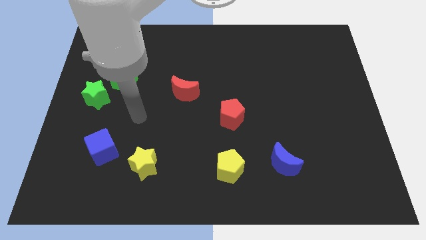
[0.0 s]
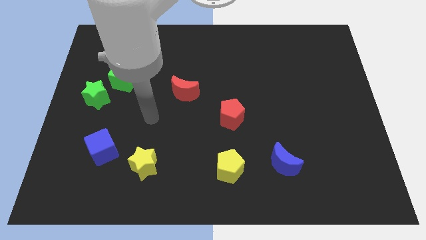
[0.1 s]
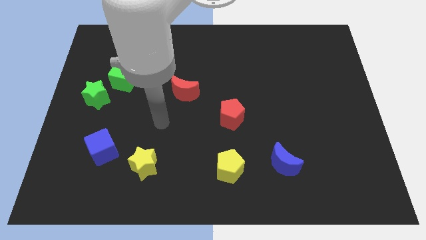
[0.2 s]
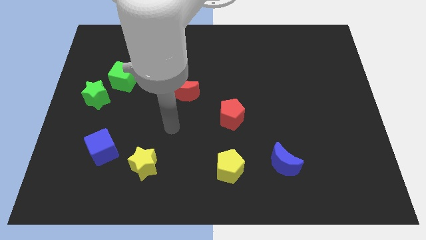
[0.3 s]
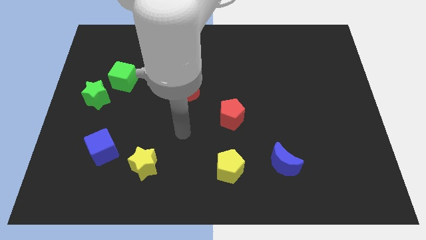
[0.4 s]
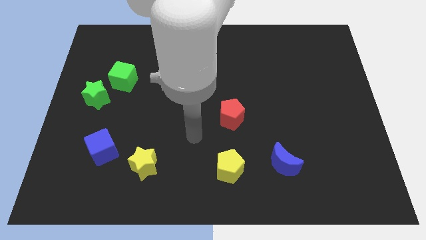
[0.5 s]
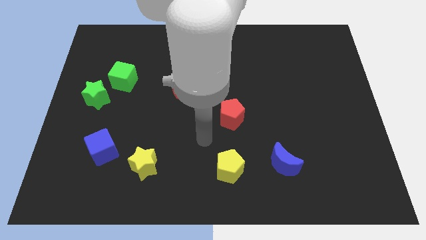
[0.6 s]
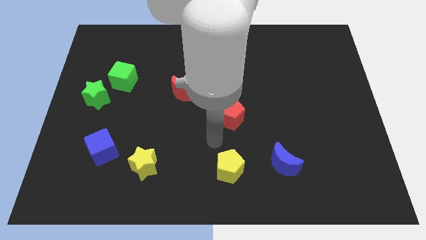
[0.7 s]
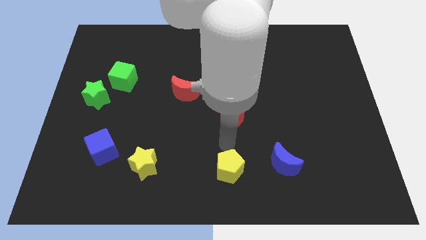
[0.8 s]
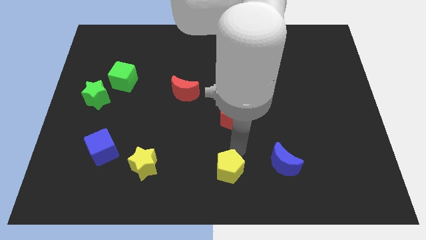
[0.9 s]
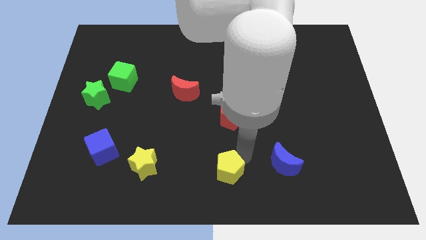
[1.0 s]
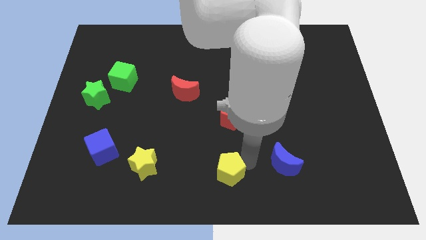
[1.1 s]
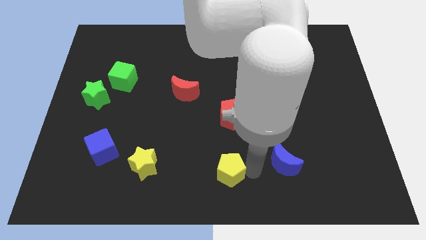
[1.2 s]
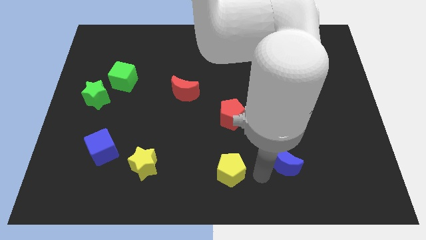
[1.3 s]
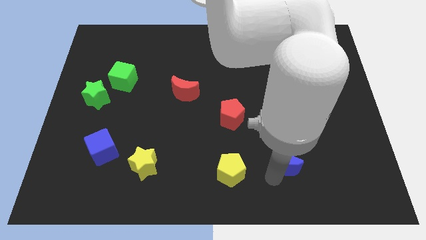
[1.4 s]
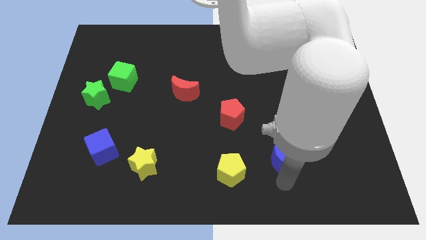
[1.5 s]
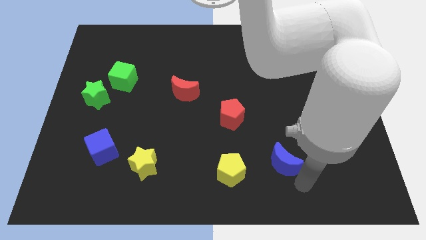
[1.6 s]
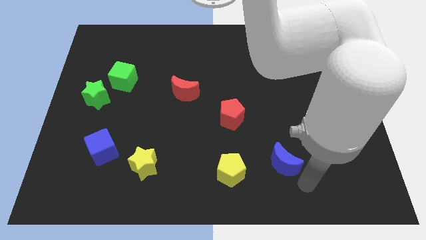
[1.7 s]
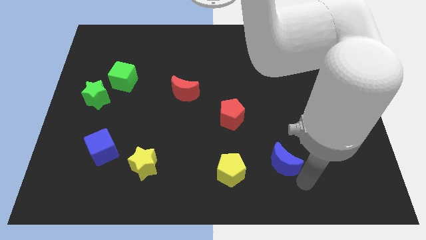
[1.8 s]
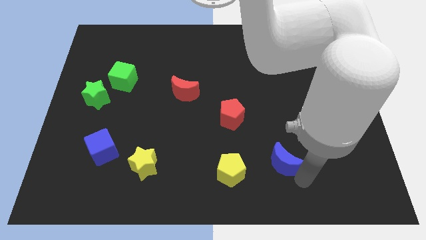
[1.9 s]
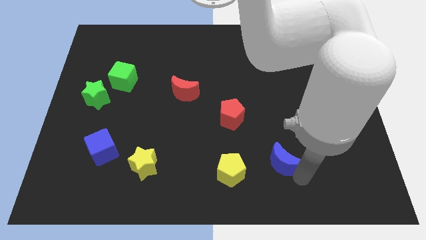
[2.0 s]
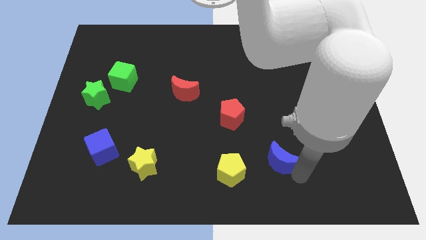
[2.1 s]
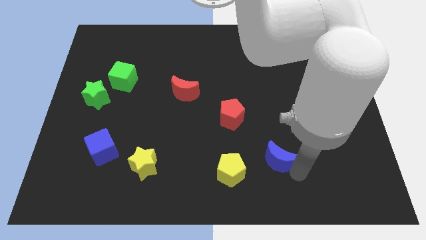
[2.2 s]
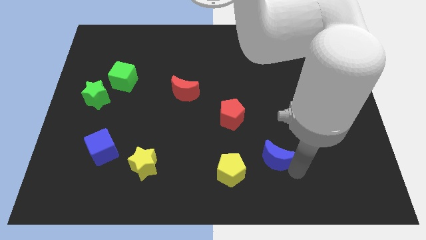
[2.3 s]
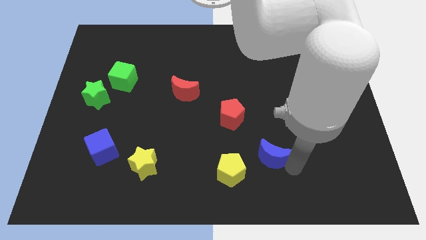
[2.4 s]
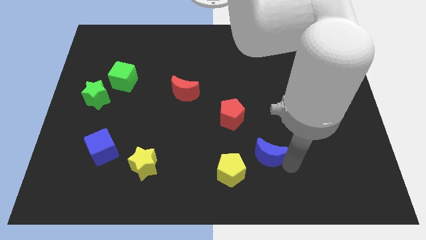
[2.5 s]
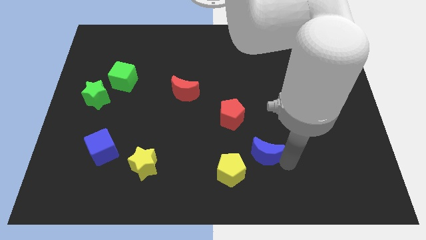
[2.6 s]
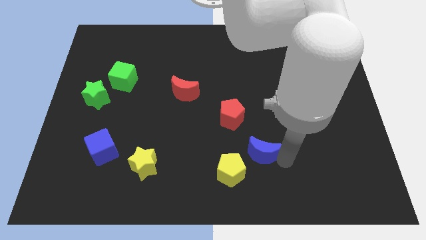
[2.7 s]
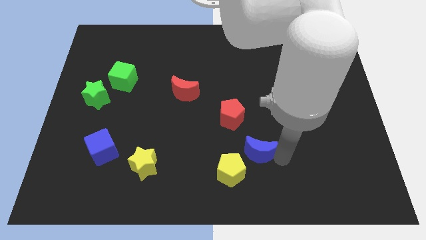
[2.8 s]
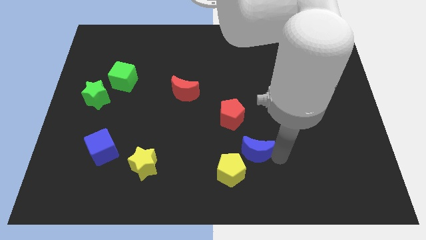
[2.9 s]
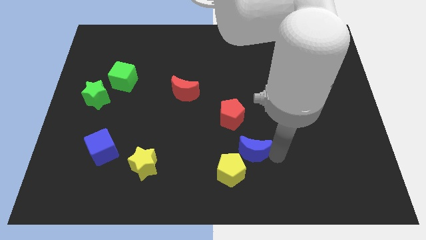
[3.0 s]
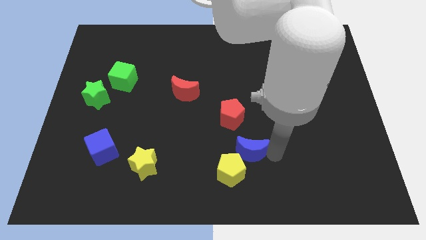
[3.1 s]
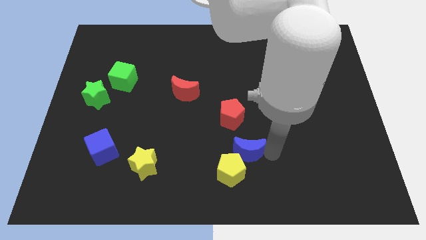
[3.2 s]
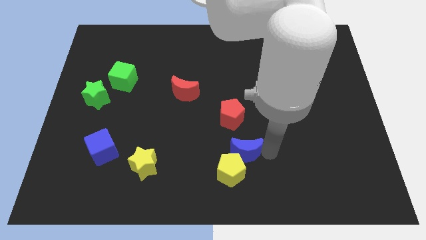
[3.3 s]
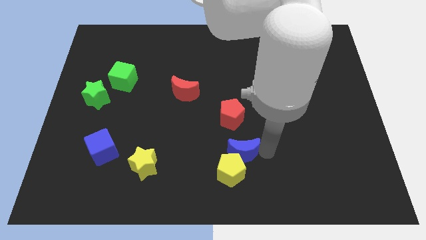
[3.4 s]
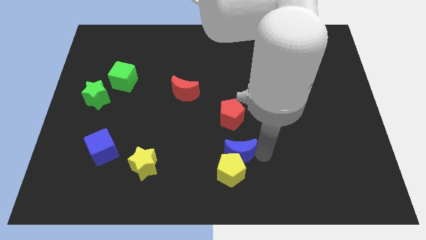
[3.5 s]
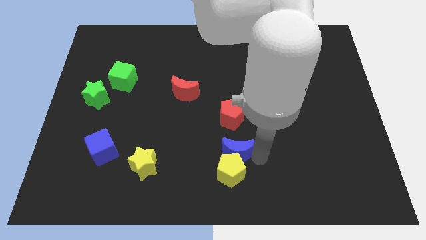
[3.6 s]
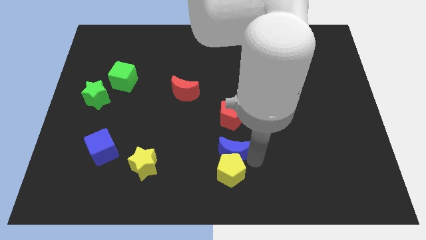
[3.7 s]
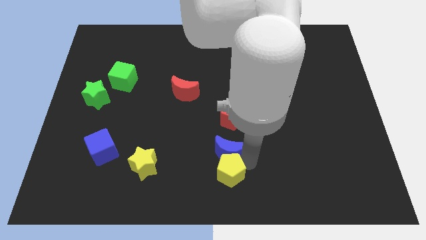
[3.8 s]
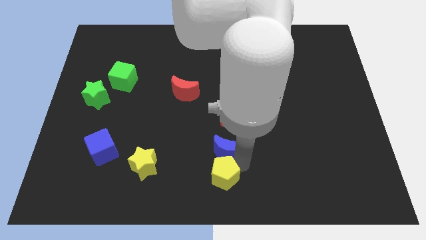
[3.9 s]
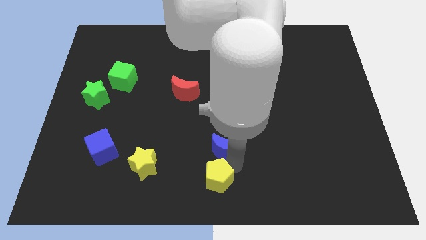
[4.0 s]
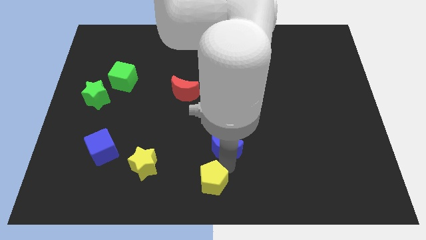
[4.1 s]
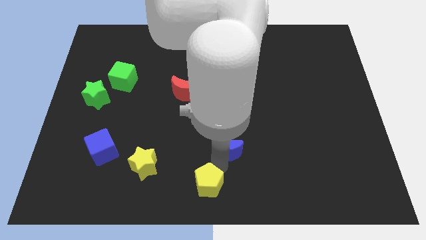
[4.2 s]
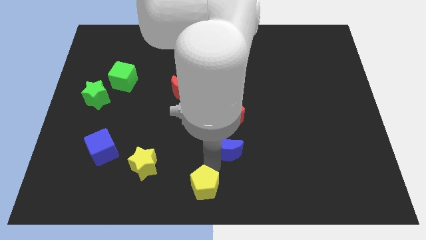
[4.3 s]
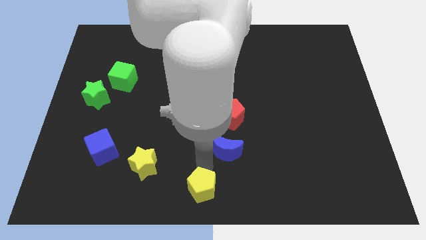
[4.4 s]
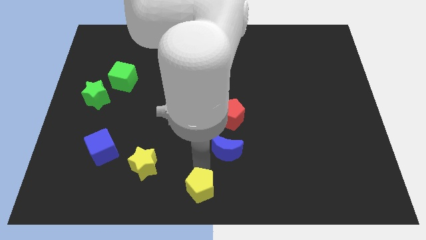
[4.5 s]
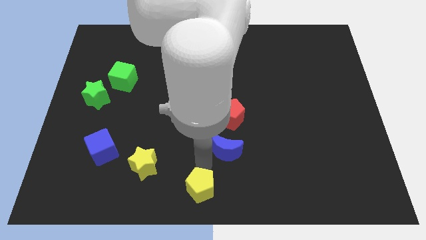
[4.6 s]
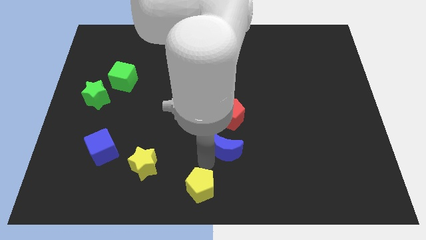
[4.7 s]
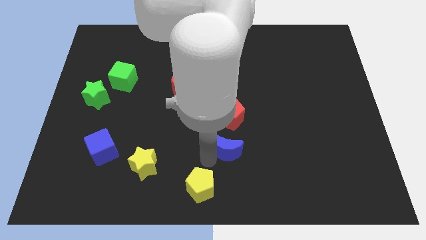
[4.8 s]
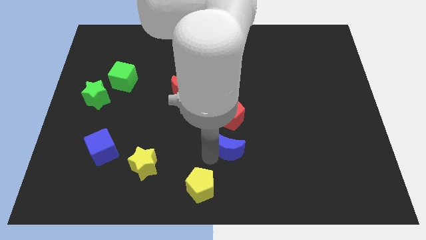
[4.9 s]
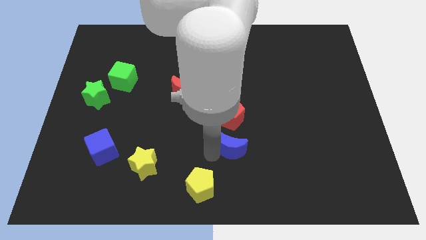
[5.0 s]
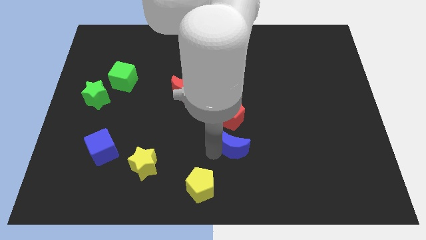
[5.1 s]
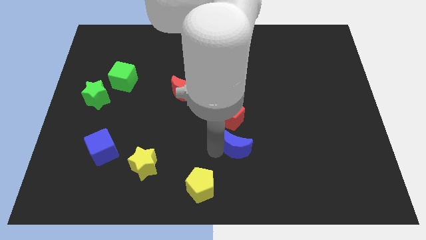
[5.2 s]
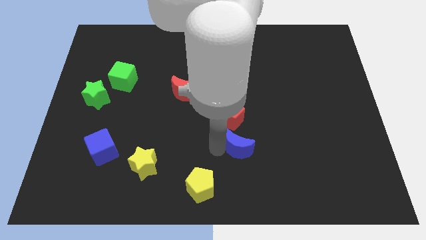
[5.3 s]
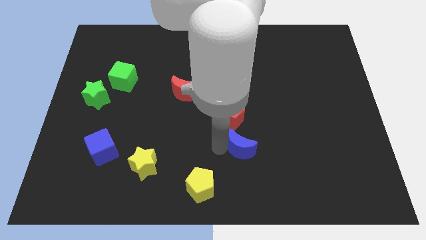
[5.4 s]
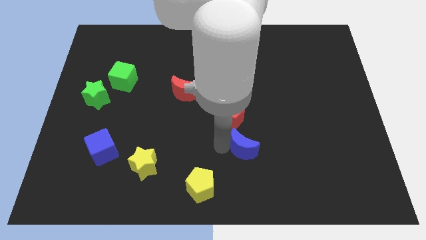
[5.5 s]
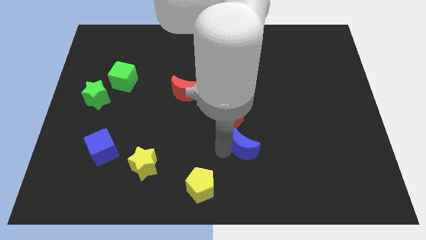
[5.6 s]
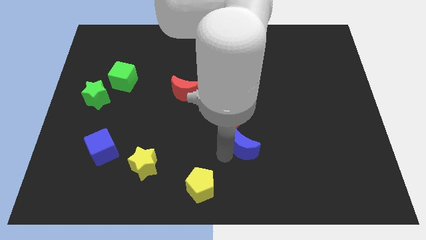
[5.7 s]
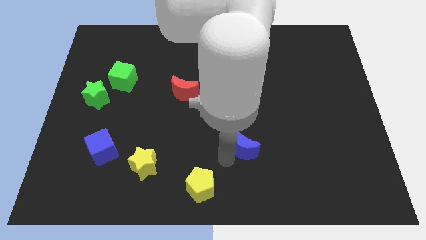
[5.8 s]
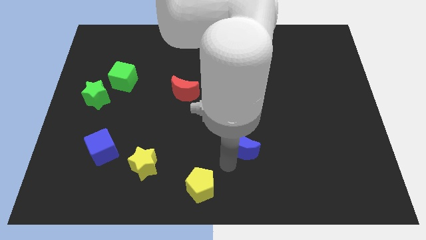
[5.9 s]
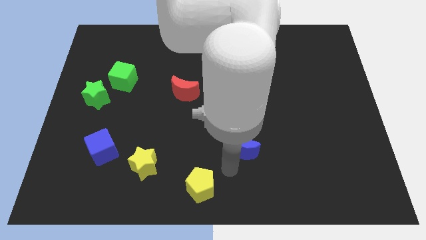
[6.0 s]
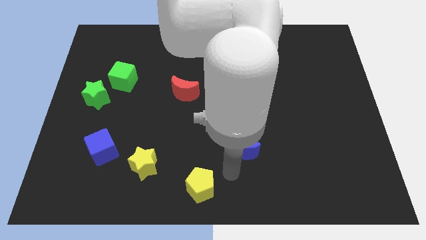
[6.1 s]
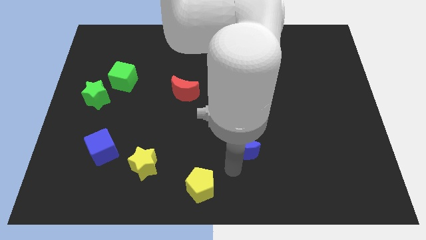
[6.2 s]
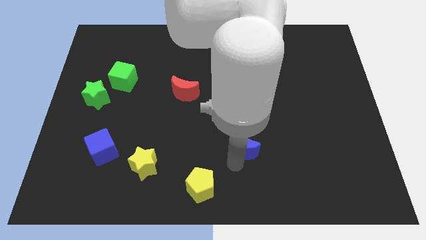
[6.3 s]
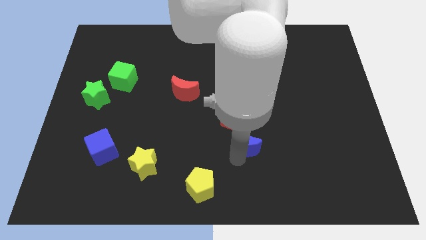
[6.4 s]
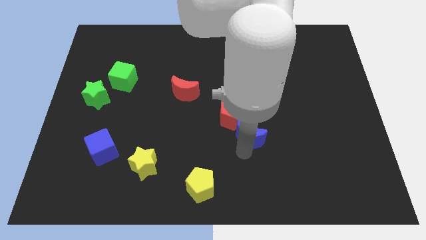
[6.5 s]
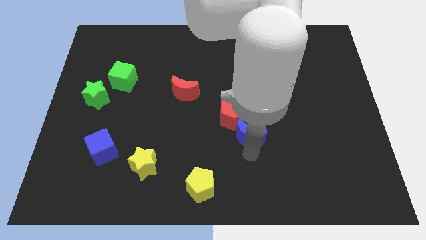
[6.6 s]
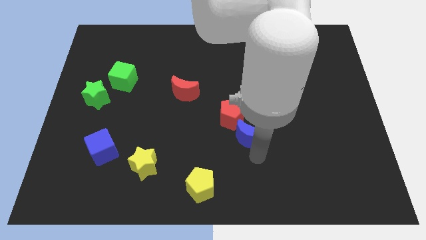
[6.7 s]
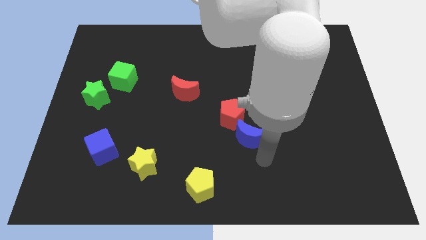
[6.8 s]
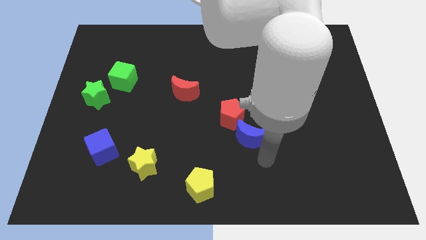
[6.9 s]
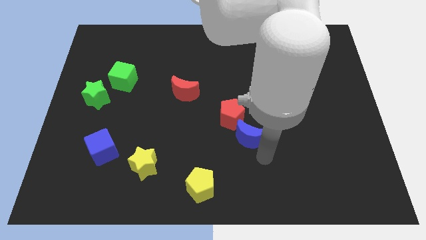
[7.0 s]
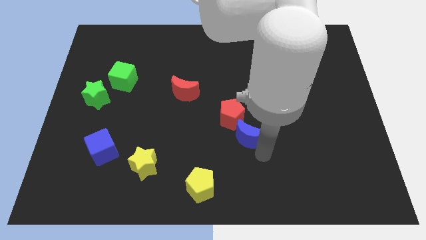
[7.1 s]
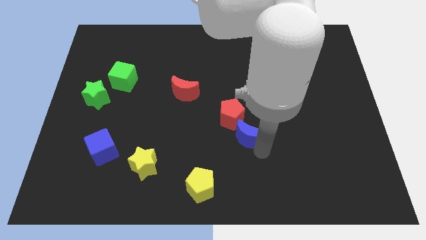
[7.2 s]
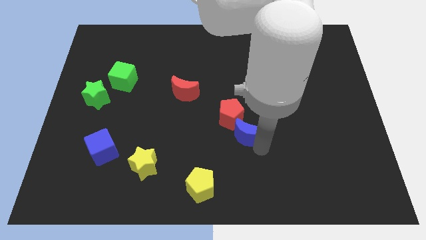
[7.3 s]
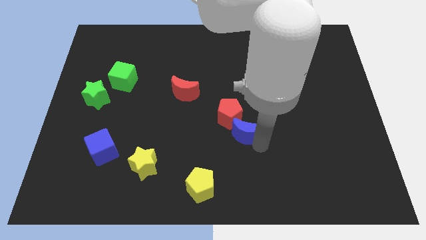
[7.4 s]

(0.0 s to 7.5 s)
move the blue moon close to the red pentagon
